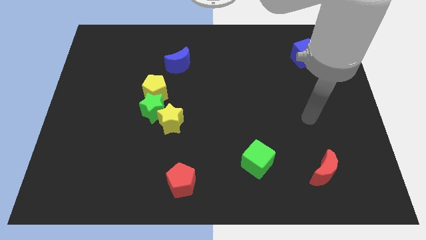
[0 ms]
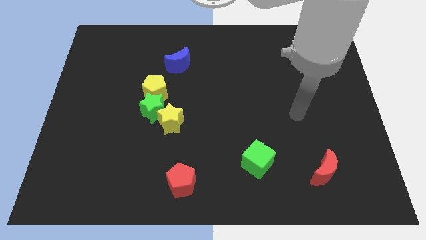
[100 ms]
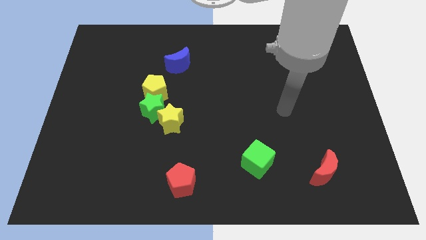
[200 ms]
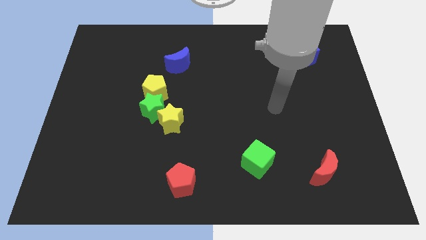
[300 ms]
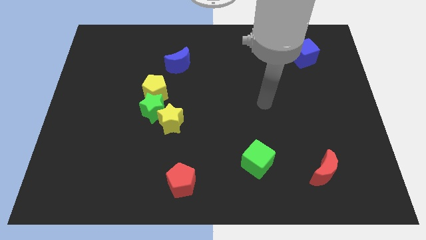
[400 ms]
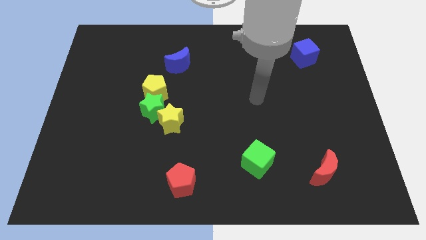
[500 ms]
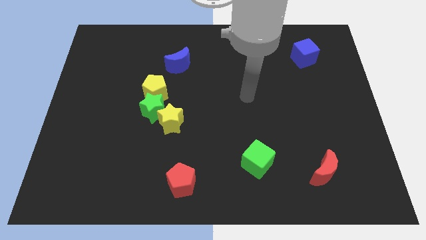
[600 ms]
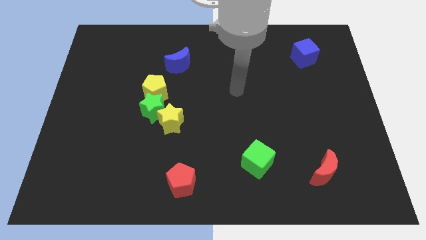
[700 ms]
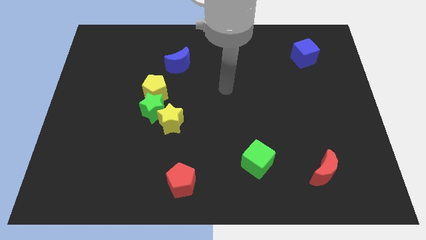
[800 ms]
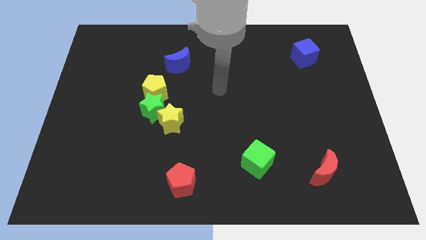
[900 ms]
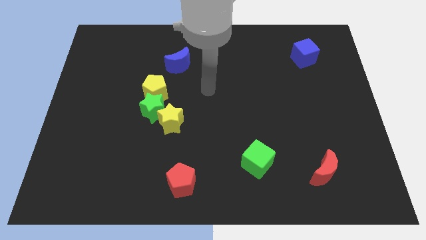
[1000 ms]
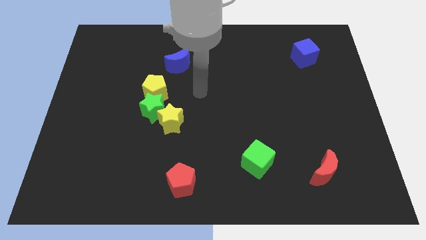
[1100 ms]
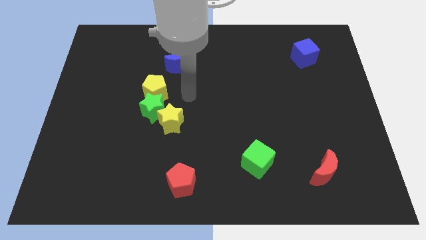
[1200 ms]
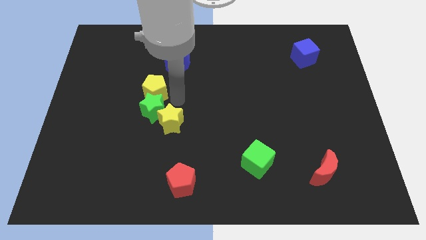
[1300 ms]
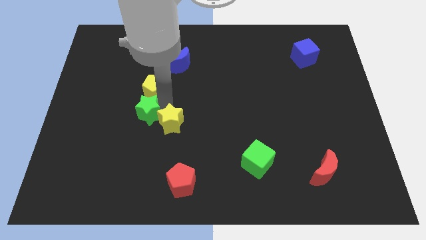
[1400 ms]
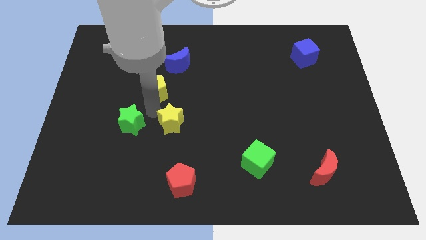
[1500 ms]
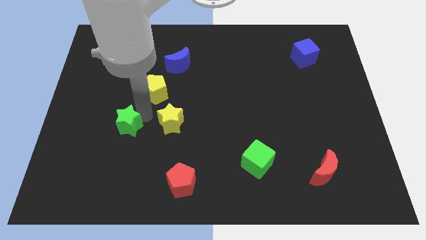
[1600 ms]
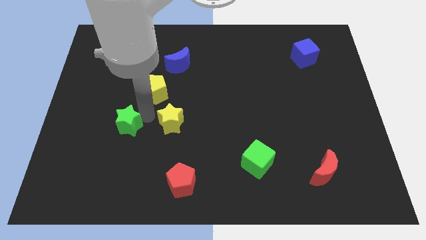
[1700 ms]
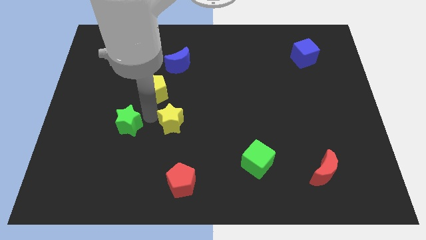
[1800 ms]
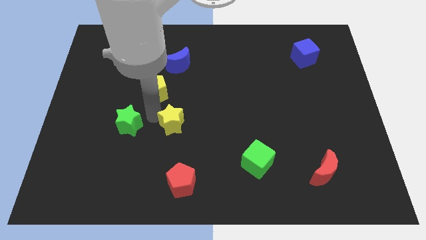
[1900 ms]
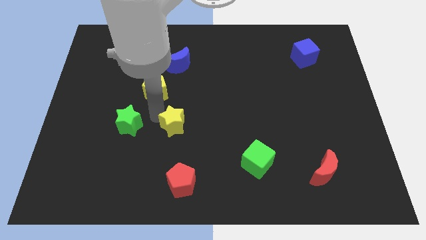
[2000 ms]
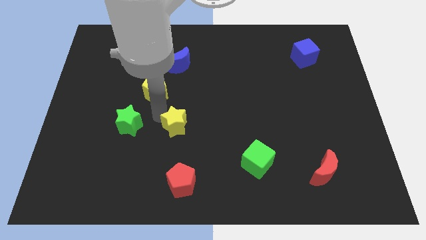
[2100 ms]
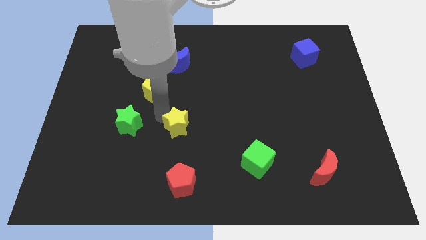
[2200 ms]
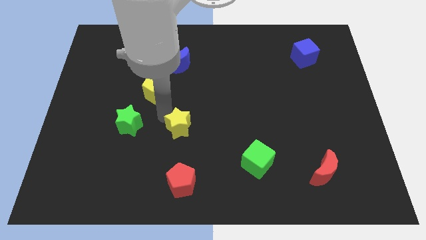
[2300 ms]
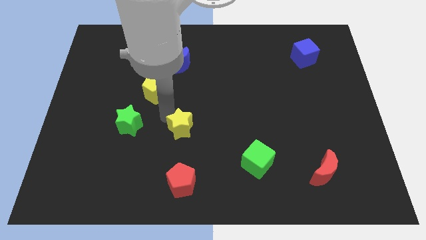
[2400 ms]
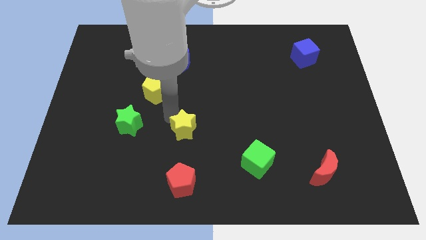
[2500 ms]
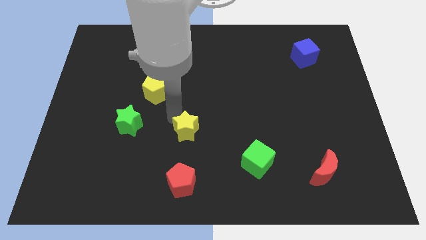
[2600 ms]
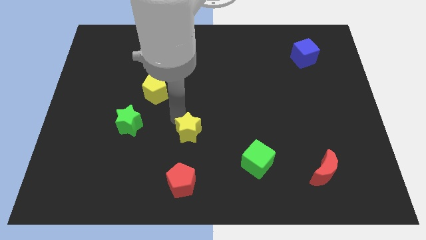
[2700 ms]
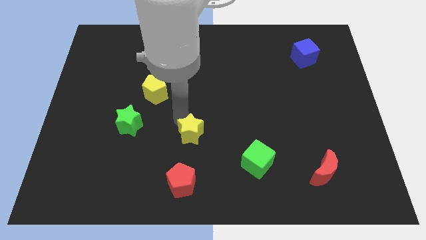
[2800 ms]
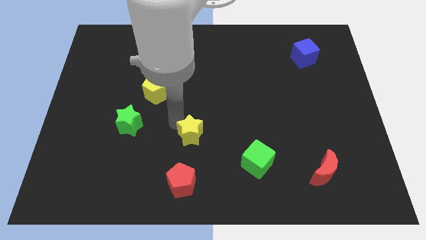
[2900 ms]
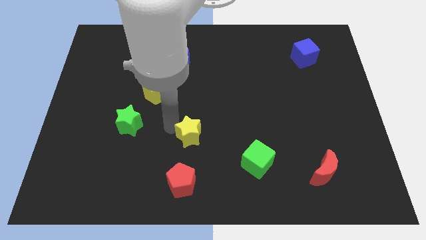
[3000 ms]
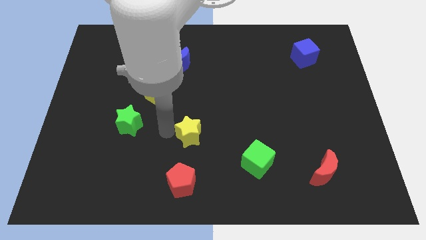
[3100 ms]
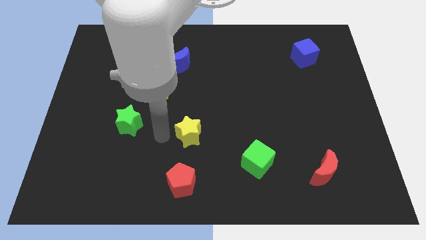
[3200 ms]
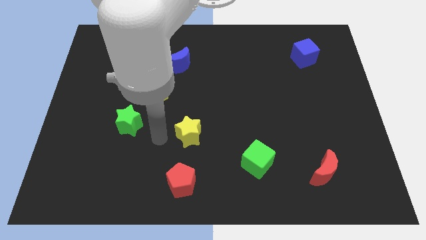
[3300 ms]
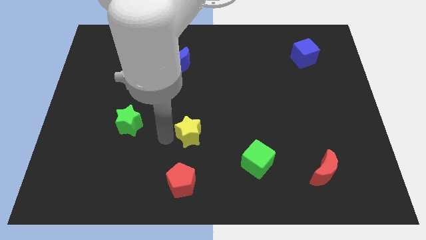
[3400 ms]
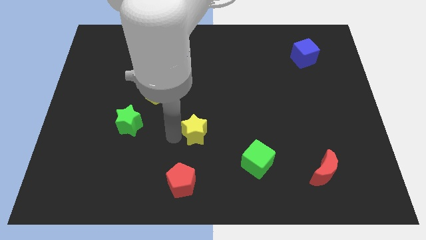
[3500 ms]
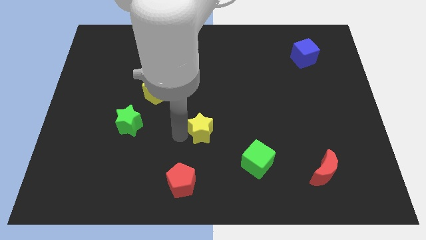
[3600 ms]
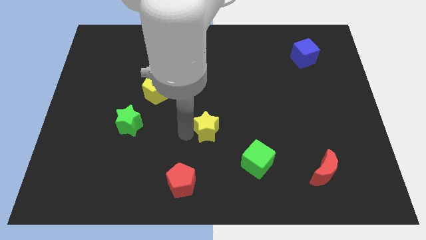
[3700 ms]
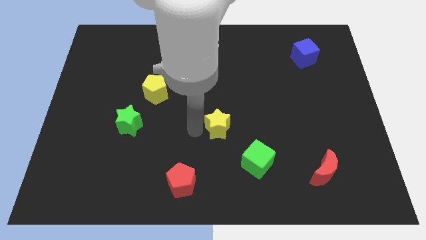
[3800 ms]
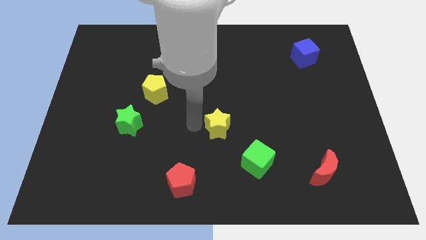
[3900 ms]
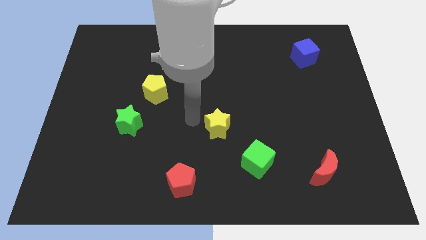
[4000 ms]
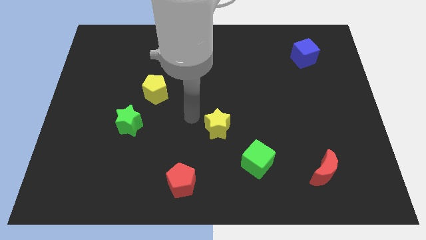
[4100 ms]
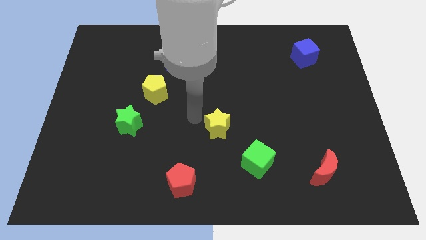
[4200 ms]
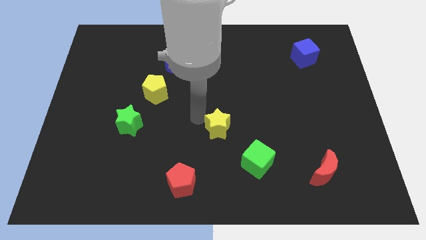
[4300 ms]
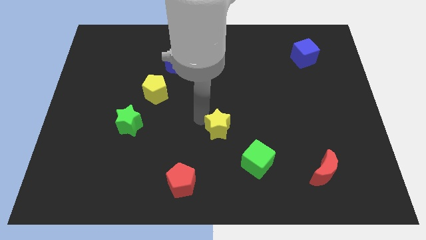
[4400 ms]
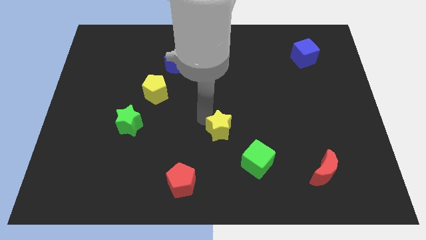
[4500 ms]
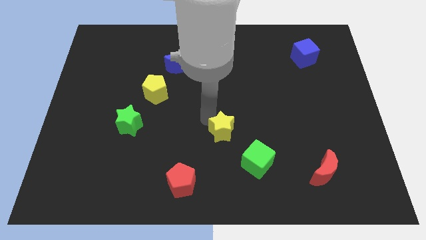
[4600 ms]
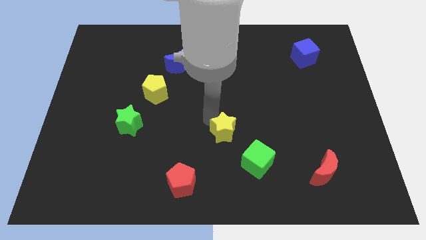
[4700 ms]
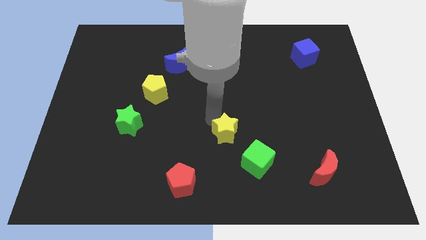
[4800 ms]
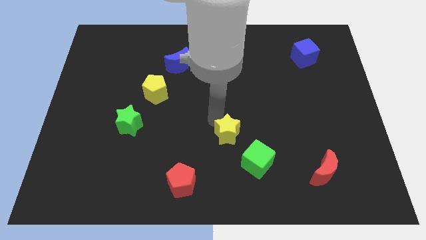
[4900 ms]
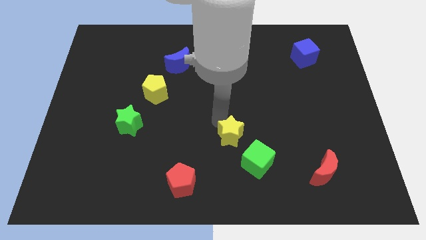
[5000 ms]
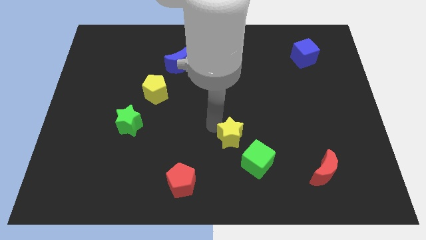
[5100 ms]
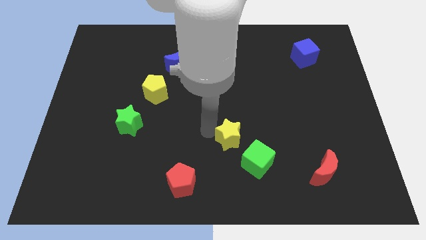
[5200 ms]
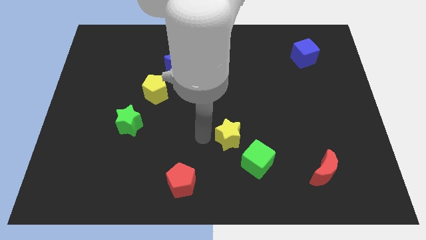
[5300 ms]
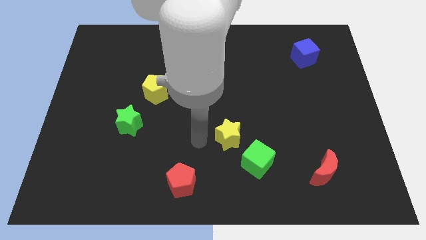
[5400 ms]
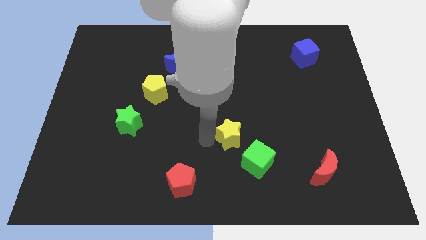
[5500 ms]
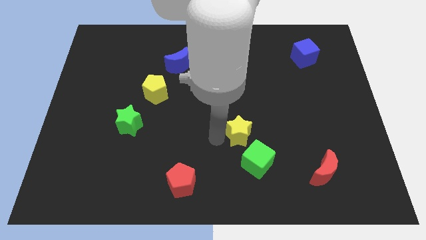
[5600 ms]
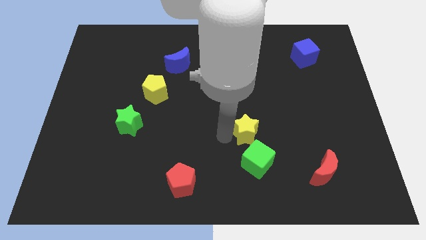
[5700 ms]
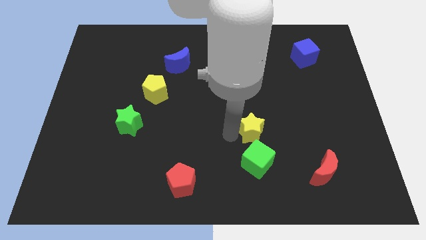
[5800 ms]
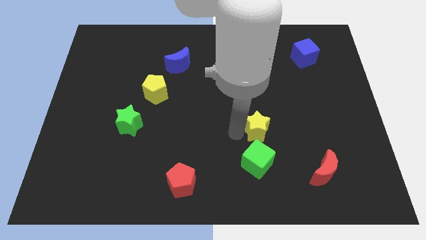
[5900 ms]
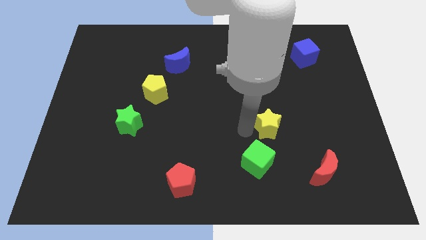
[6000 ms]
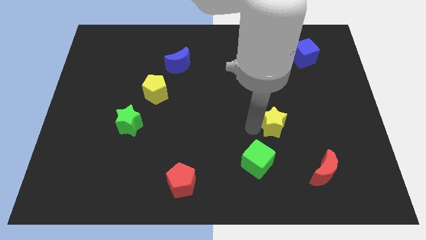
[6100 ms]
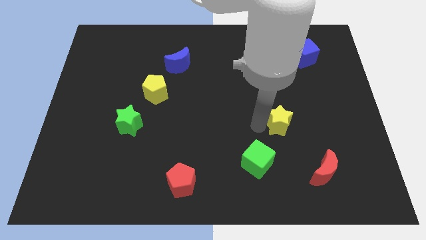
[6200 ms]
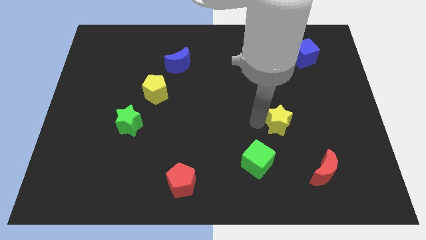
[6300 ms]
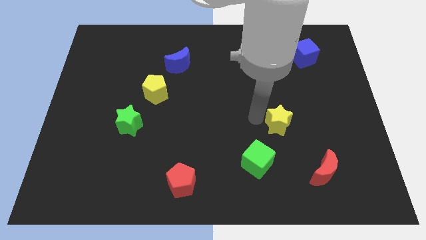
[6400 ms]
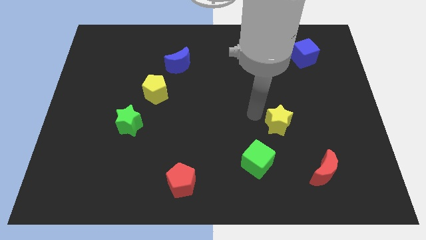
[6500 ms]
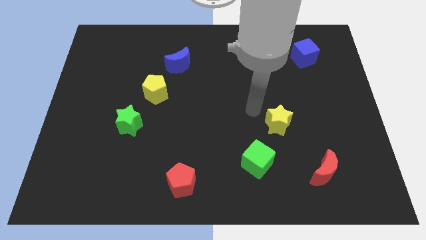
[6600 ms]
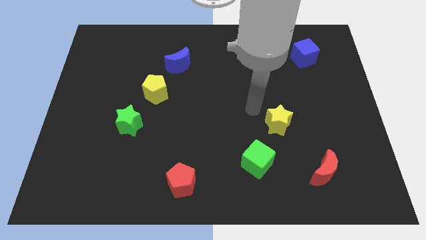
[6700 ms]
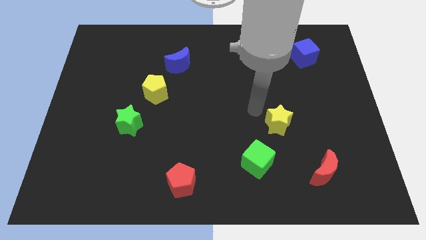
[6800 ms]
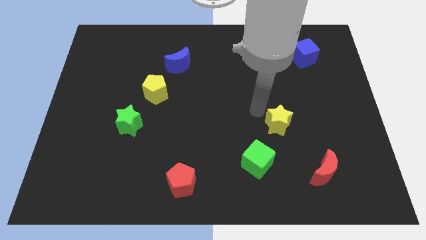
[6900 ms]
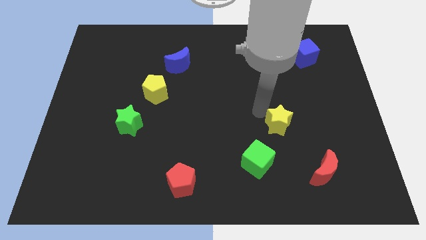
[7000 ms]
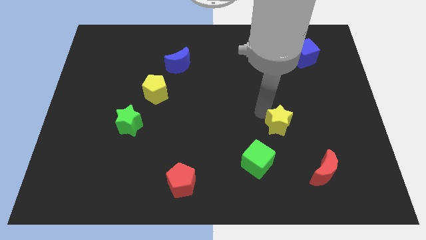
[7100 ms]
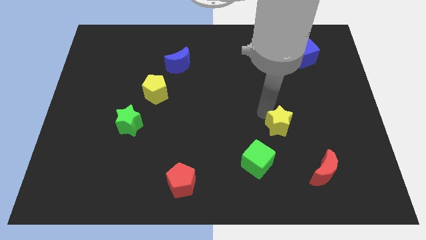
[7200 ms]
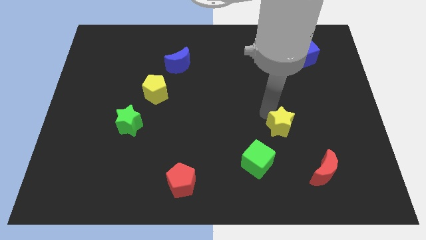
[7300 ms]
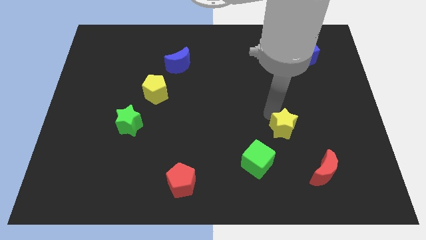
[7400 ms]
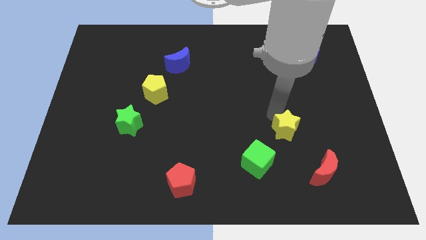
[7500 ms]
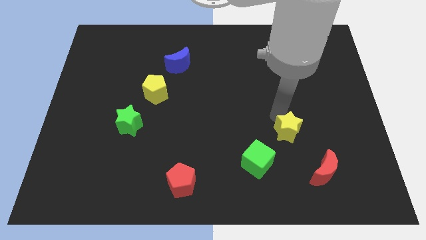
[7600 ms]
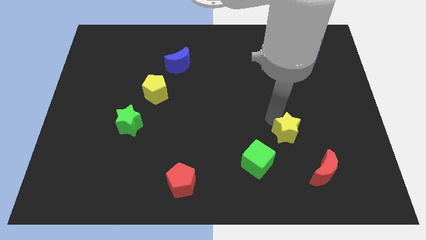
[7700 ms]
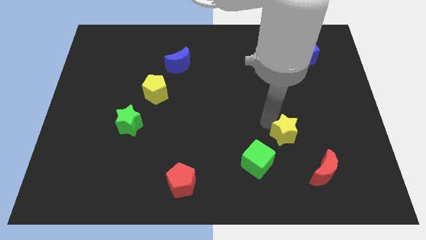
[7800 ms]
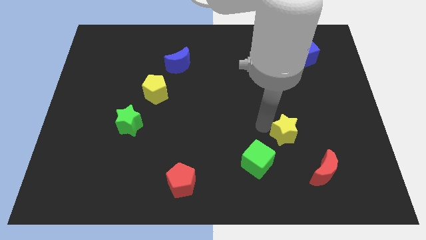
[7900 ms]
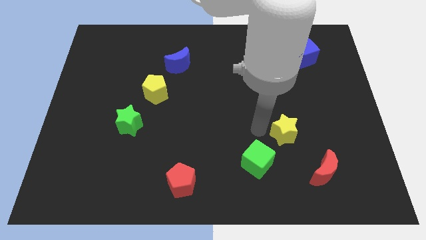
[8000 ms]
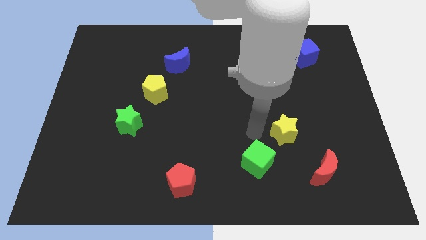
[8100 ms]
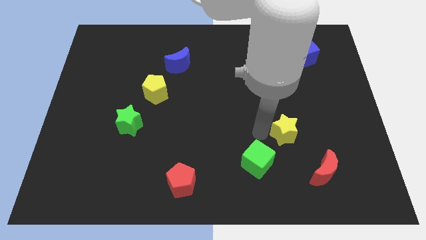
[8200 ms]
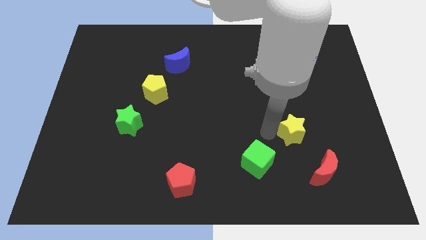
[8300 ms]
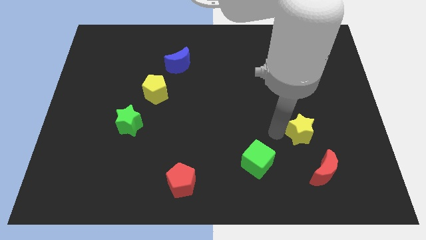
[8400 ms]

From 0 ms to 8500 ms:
put the yellow star to the top side of the red moon
